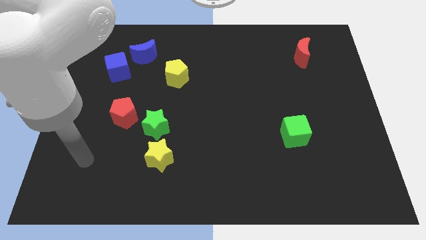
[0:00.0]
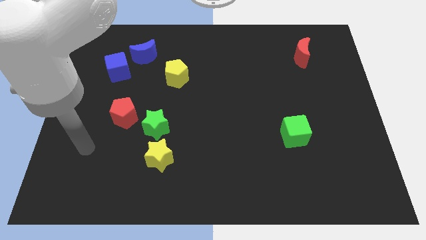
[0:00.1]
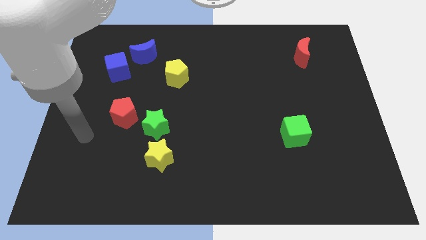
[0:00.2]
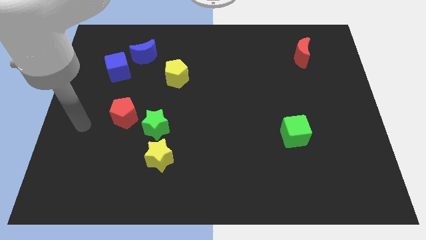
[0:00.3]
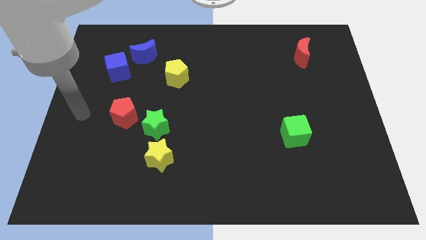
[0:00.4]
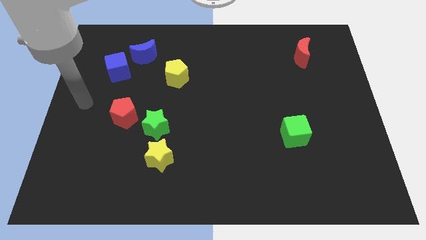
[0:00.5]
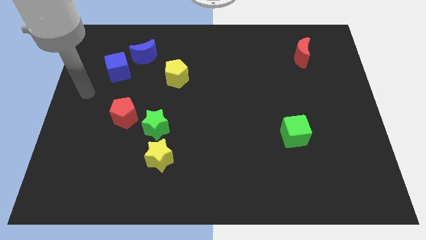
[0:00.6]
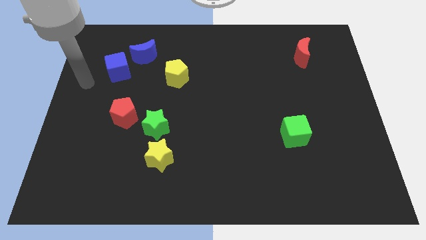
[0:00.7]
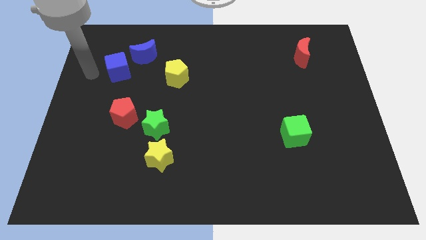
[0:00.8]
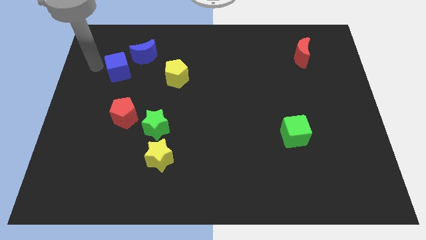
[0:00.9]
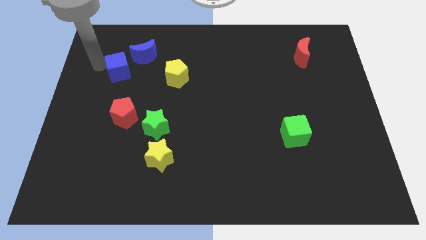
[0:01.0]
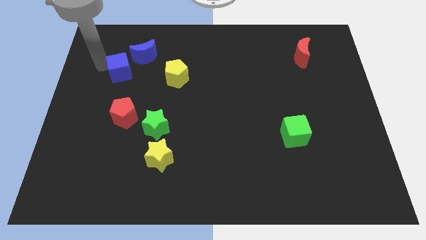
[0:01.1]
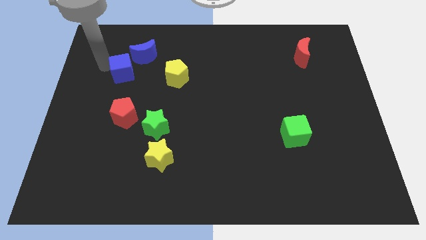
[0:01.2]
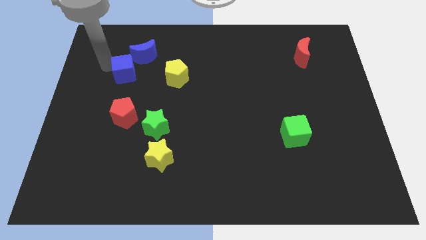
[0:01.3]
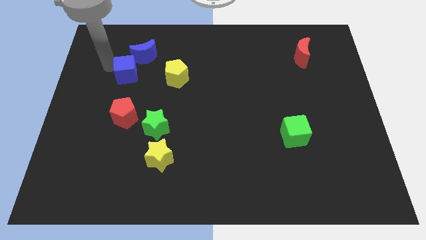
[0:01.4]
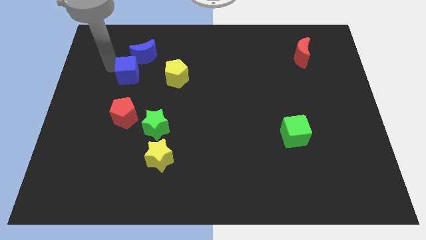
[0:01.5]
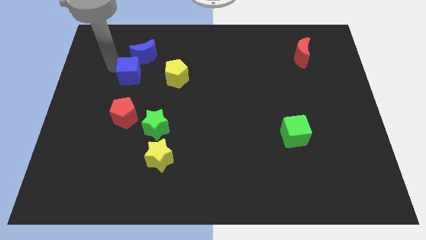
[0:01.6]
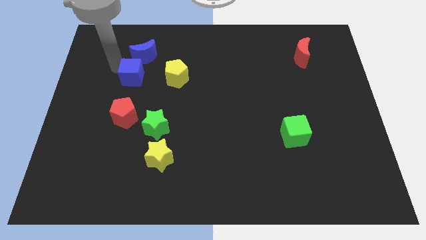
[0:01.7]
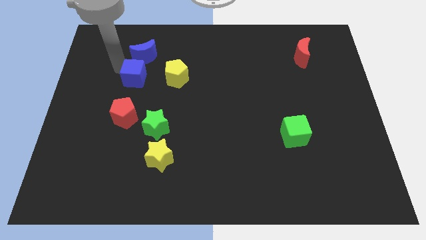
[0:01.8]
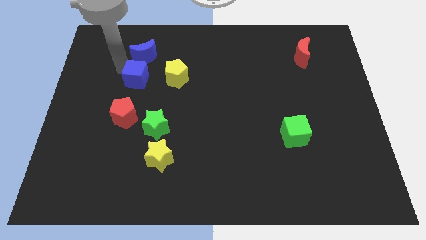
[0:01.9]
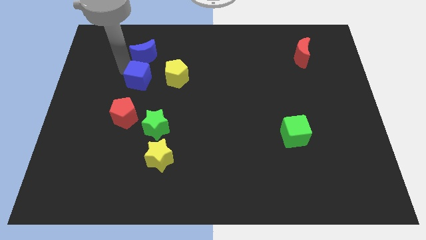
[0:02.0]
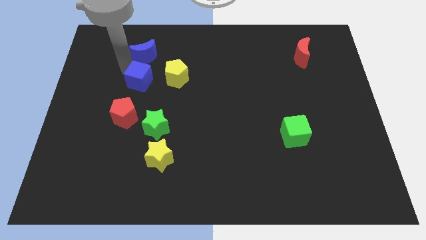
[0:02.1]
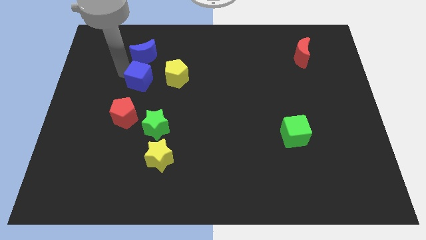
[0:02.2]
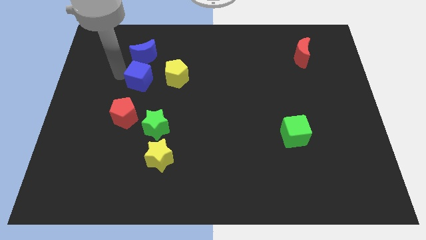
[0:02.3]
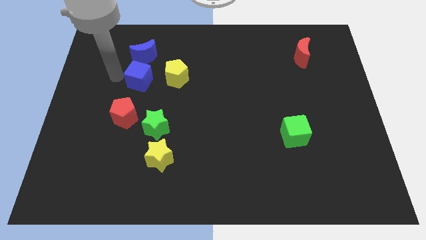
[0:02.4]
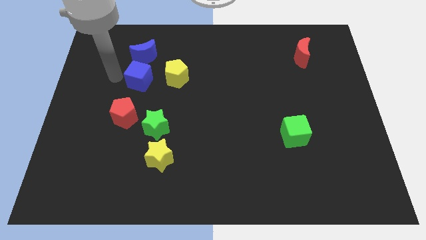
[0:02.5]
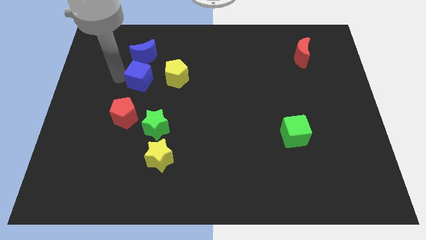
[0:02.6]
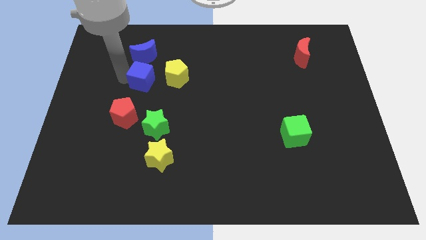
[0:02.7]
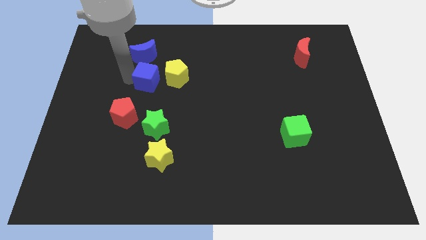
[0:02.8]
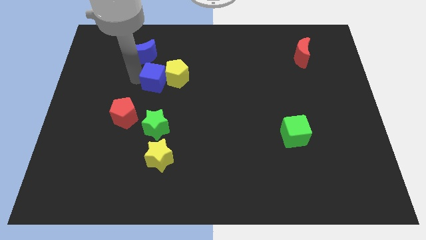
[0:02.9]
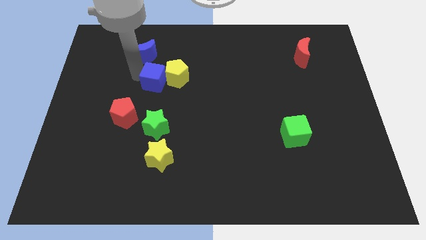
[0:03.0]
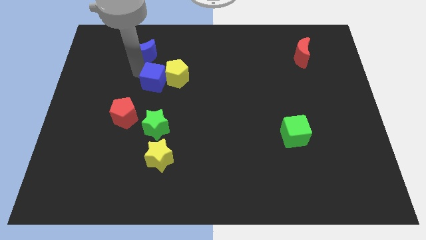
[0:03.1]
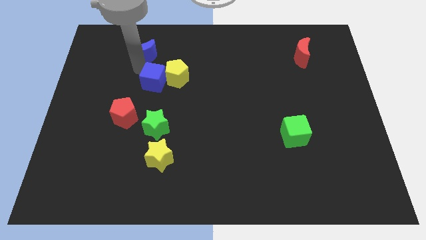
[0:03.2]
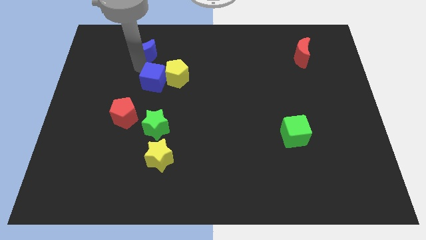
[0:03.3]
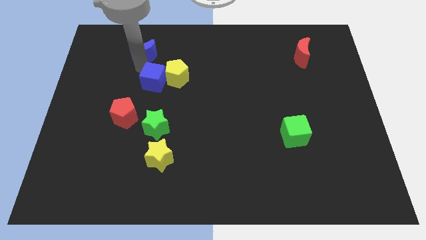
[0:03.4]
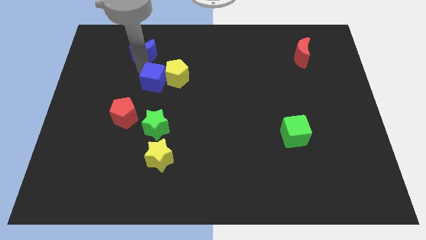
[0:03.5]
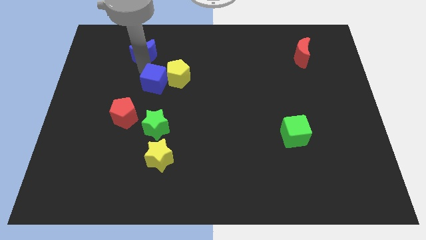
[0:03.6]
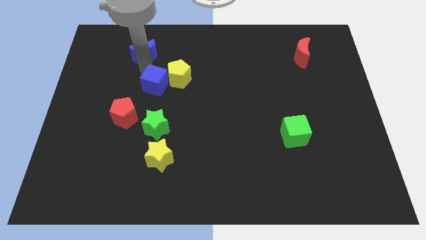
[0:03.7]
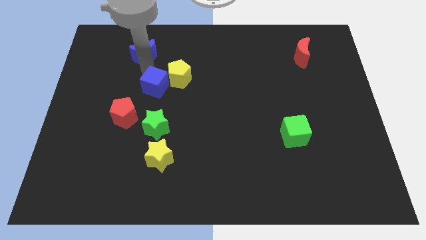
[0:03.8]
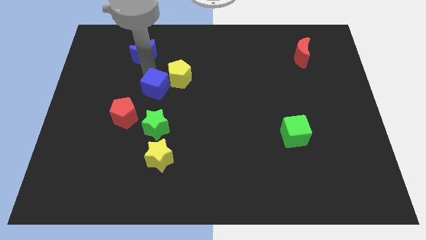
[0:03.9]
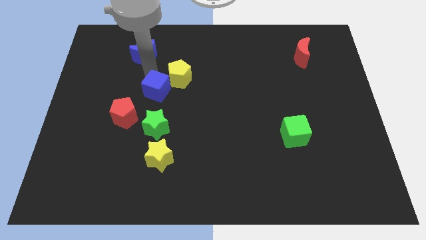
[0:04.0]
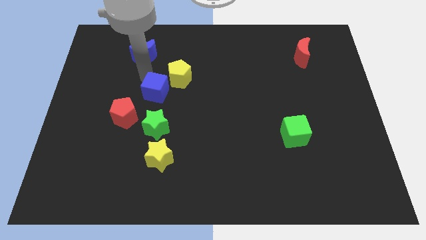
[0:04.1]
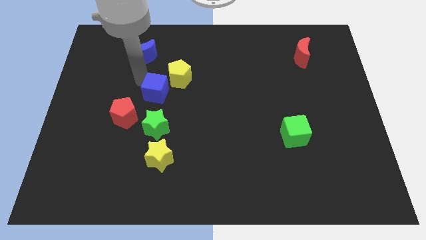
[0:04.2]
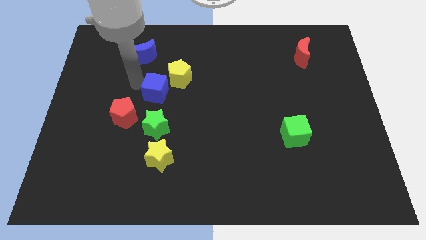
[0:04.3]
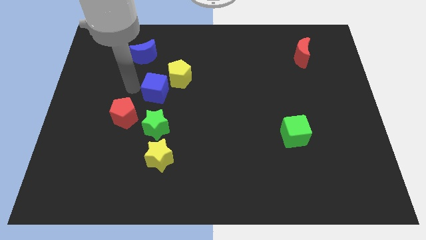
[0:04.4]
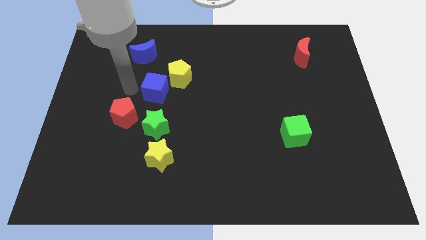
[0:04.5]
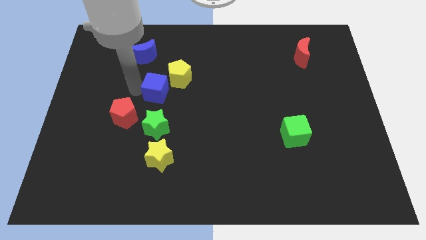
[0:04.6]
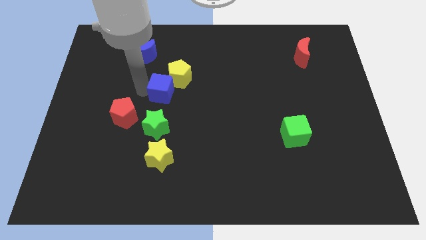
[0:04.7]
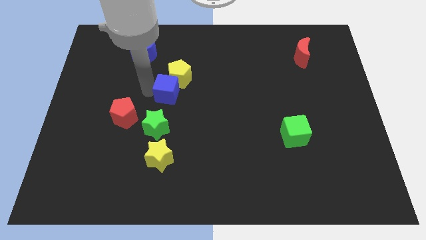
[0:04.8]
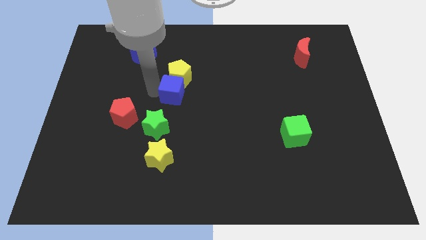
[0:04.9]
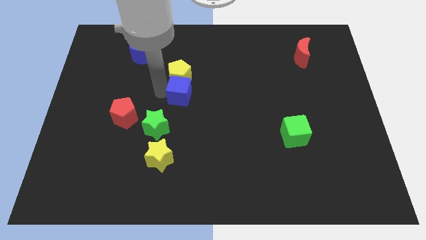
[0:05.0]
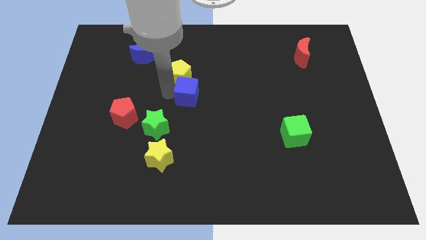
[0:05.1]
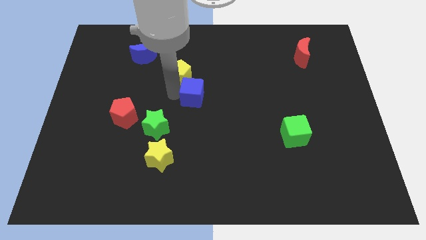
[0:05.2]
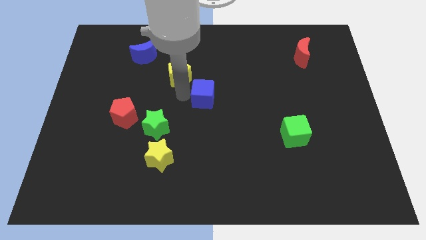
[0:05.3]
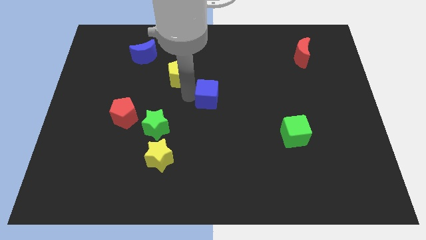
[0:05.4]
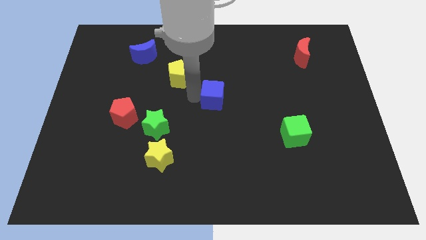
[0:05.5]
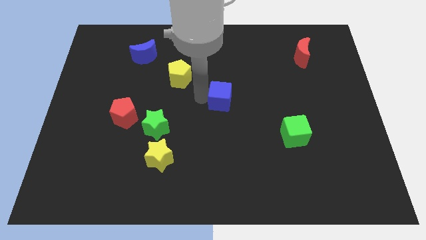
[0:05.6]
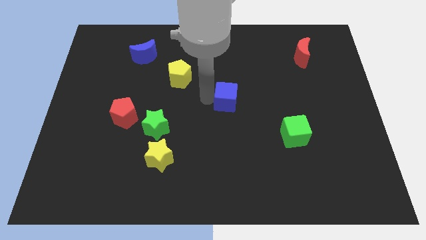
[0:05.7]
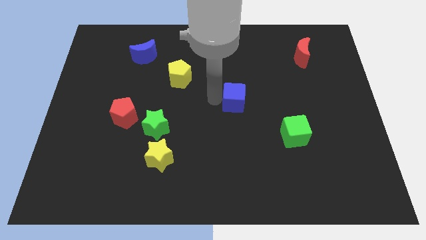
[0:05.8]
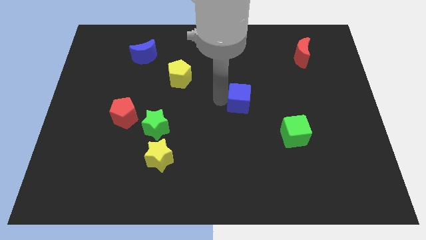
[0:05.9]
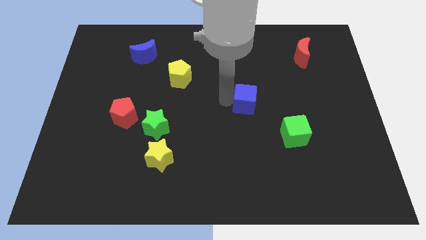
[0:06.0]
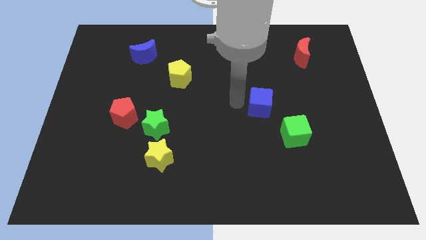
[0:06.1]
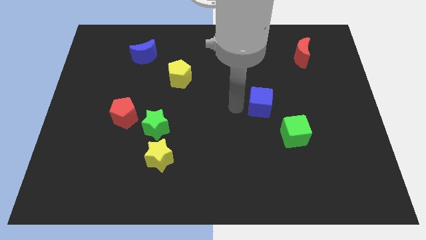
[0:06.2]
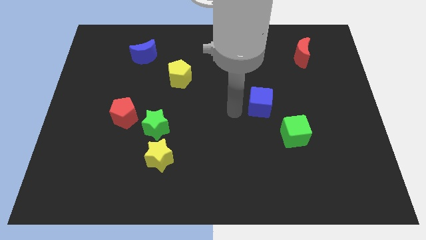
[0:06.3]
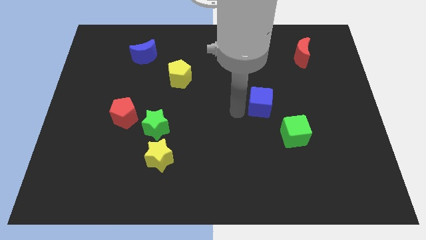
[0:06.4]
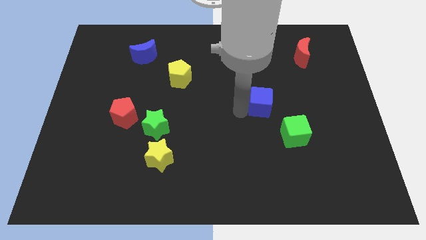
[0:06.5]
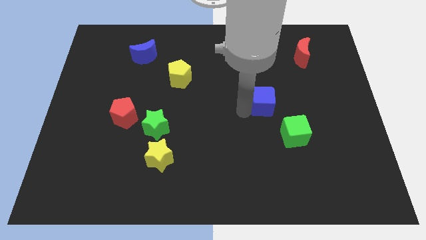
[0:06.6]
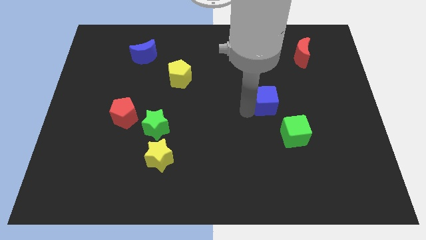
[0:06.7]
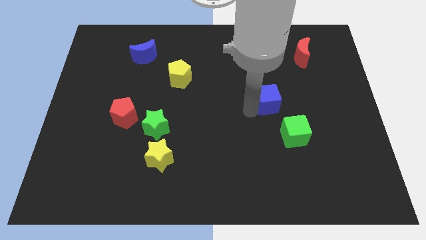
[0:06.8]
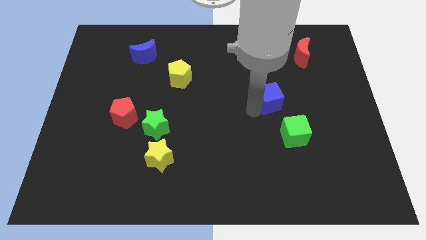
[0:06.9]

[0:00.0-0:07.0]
move the blue cube above the green cube

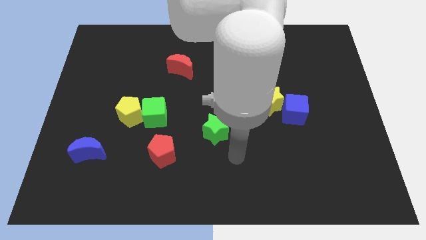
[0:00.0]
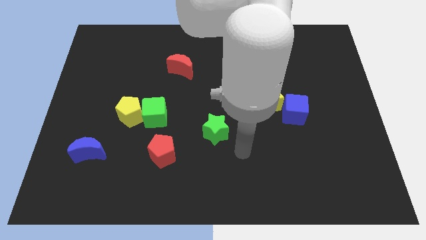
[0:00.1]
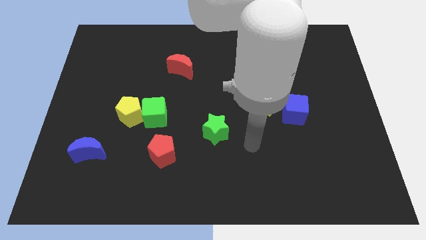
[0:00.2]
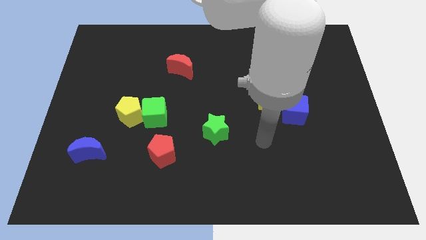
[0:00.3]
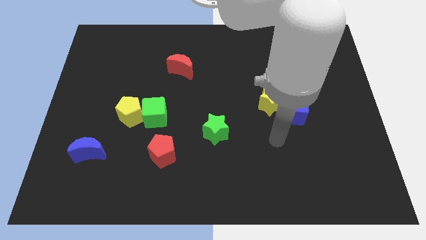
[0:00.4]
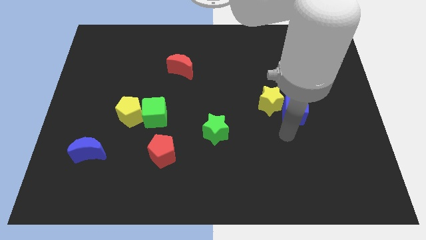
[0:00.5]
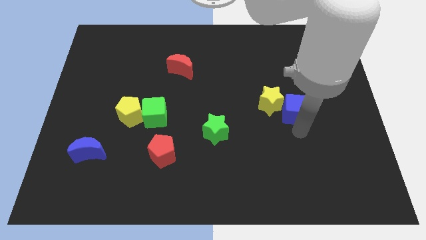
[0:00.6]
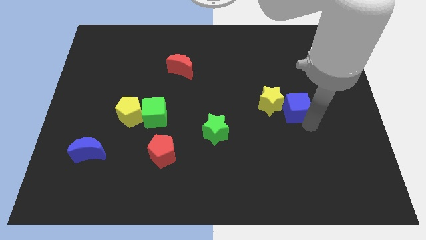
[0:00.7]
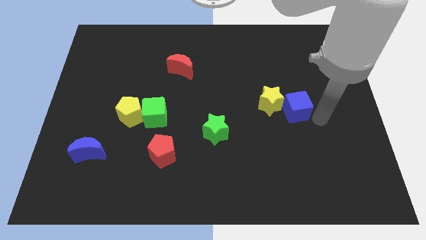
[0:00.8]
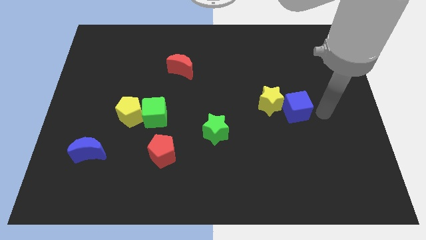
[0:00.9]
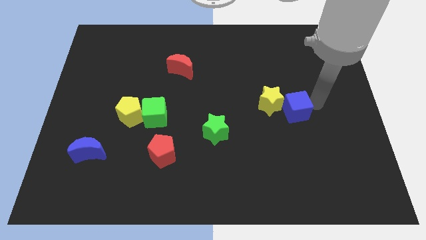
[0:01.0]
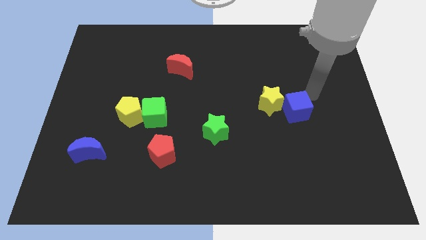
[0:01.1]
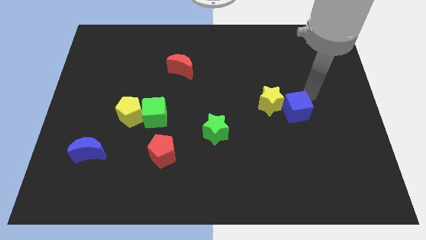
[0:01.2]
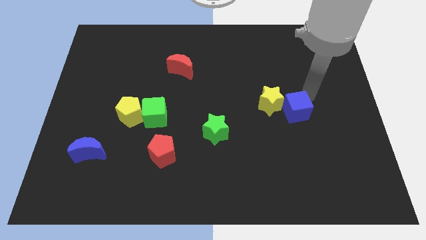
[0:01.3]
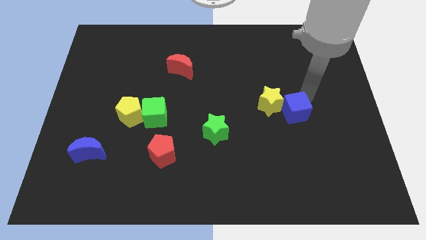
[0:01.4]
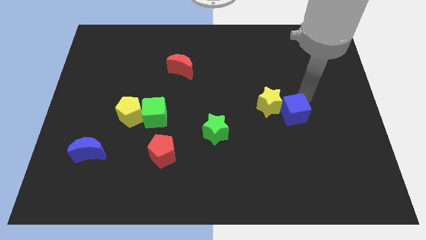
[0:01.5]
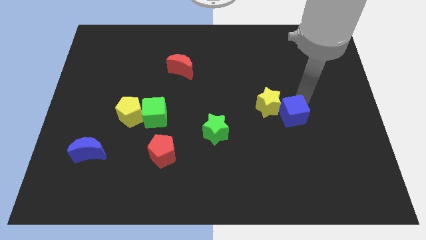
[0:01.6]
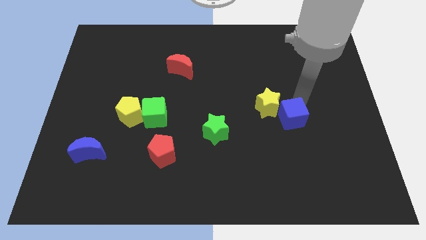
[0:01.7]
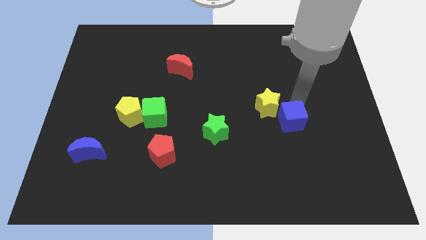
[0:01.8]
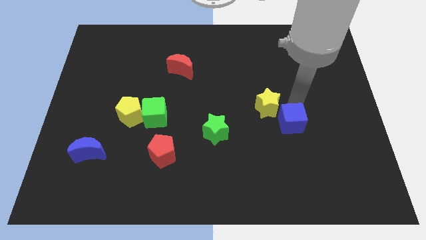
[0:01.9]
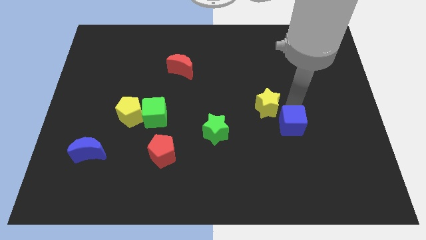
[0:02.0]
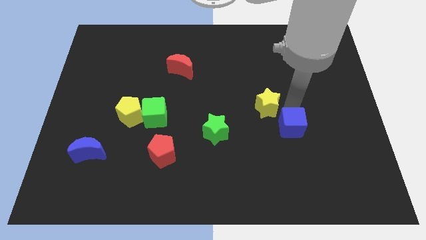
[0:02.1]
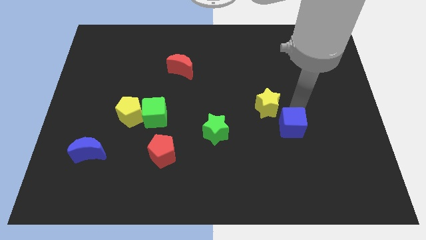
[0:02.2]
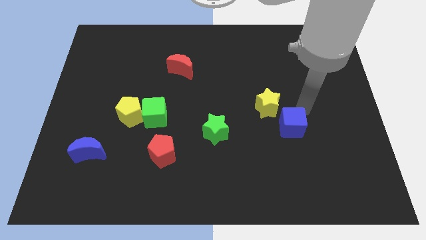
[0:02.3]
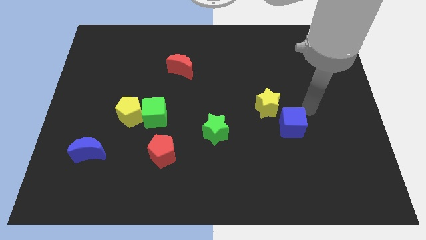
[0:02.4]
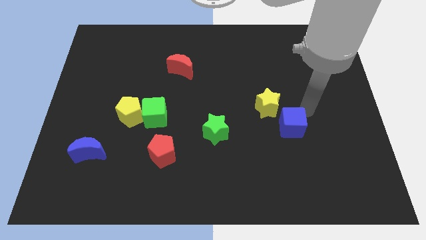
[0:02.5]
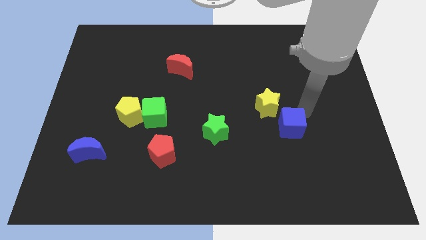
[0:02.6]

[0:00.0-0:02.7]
put the blue cube below the yellow star
